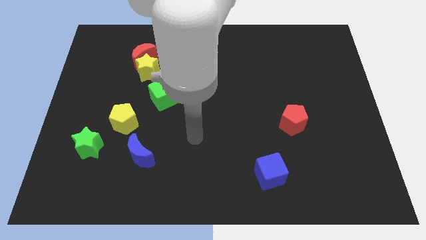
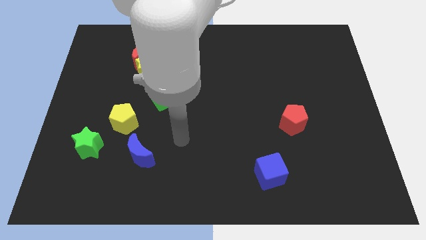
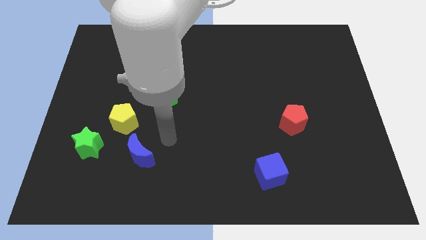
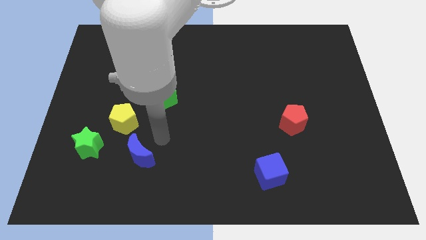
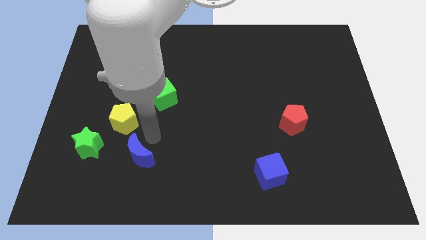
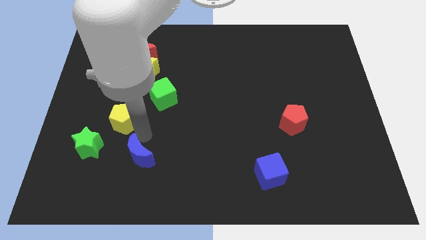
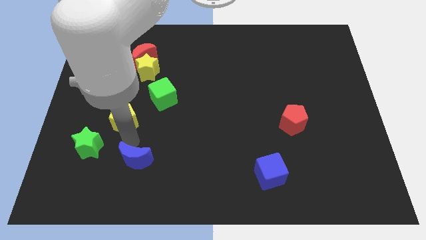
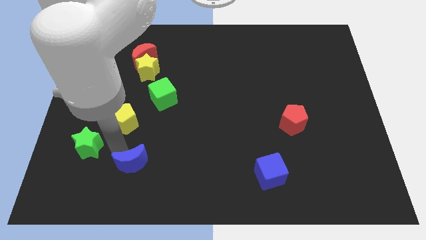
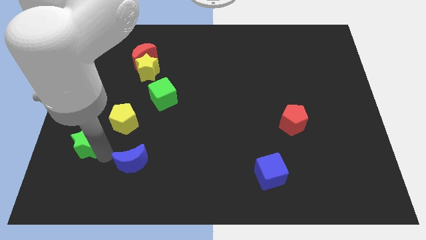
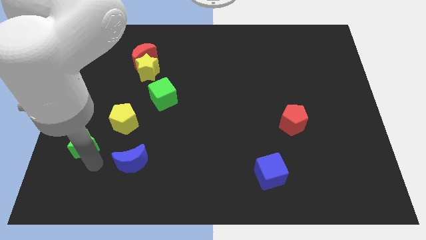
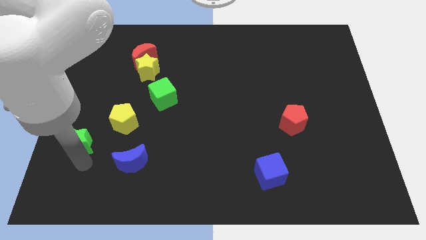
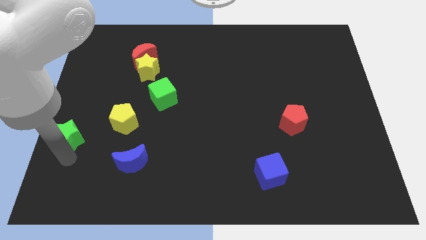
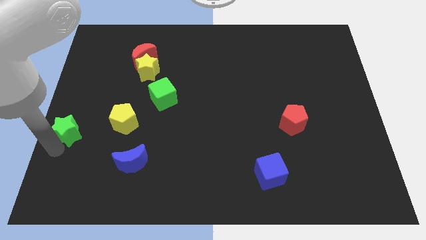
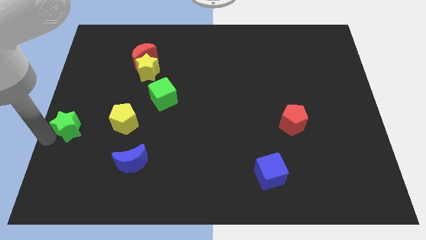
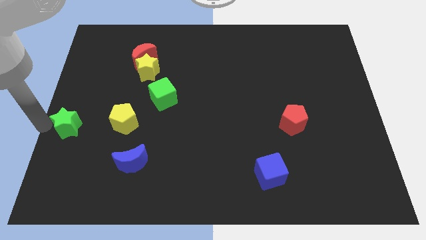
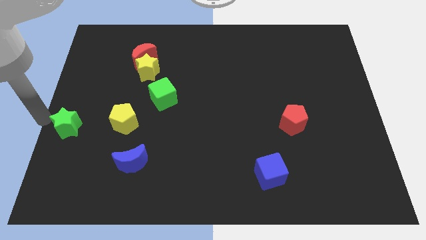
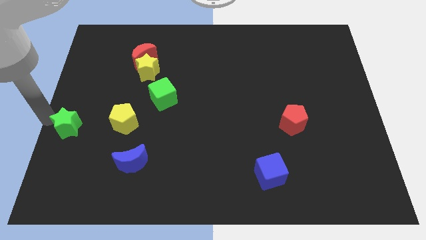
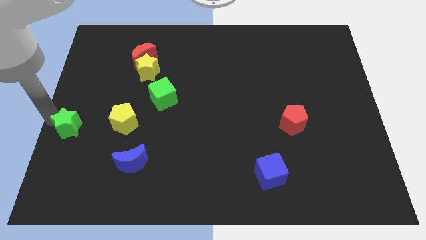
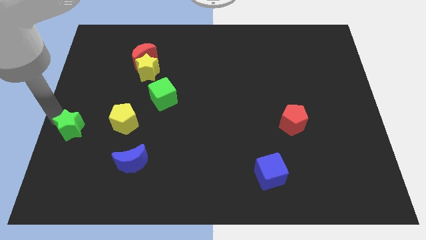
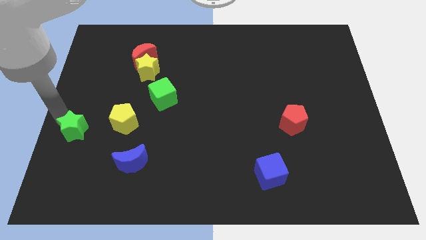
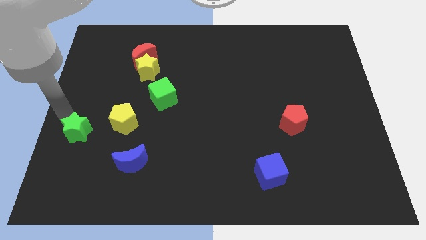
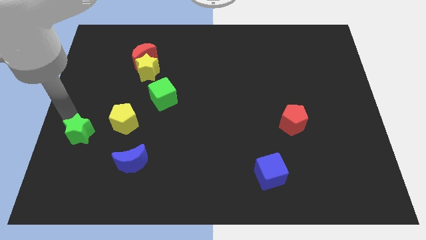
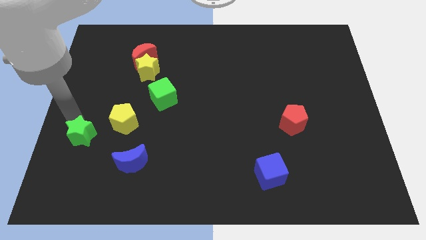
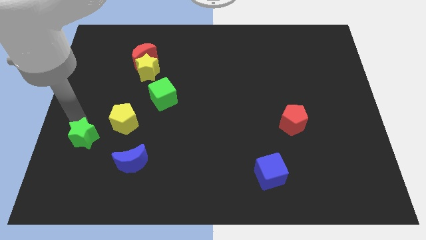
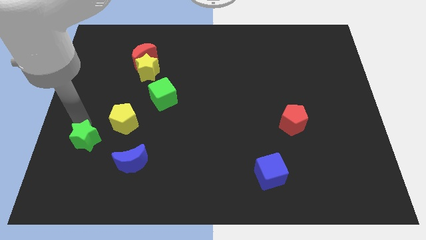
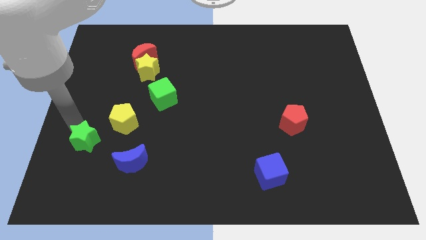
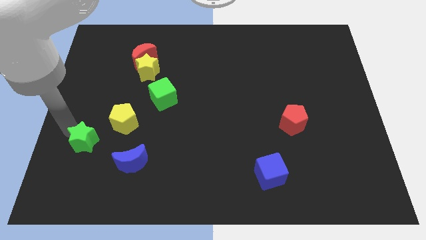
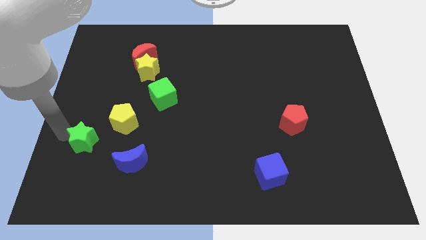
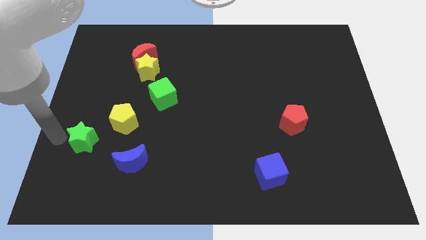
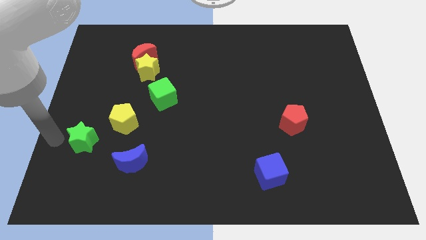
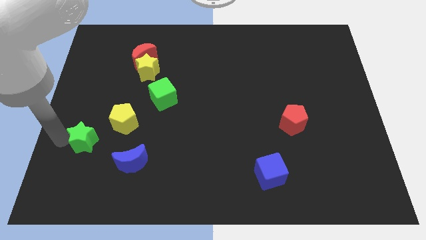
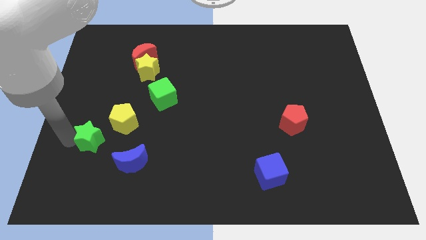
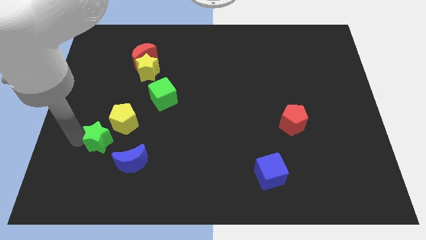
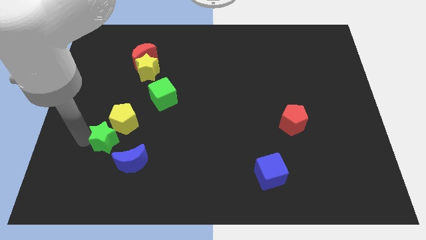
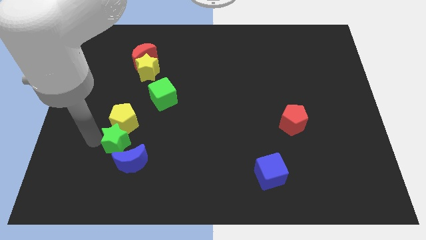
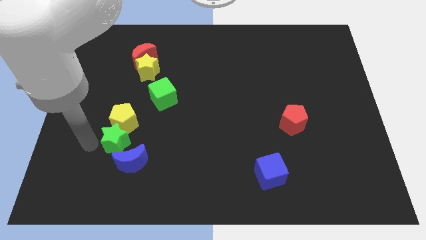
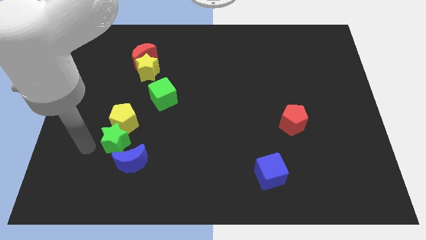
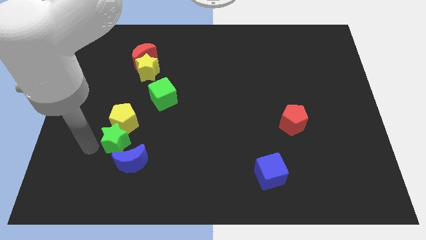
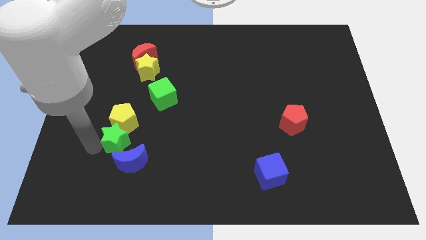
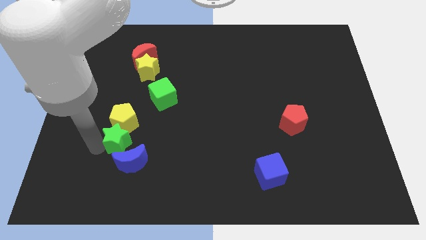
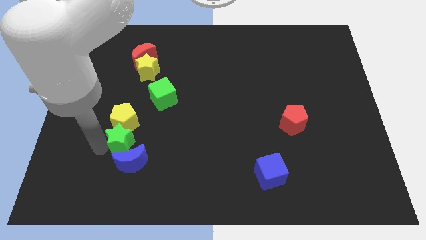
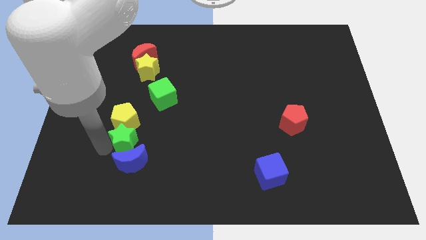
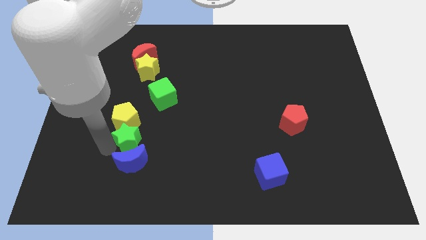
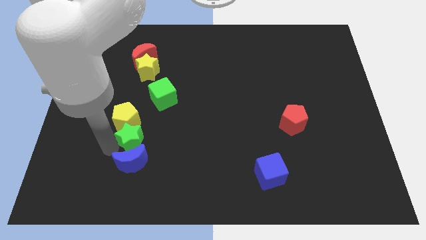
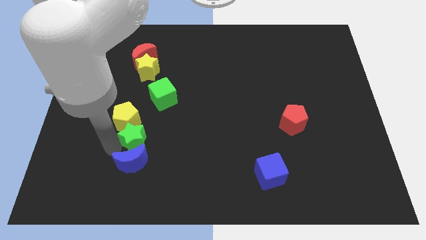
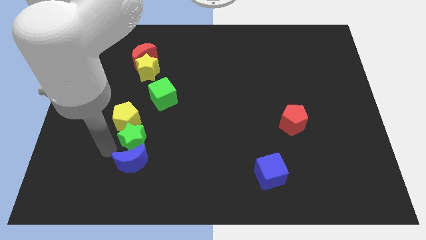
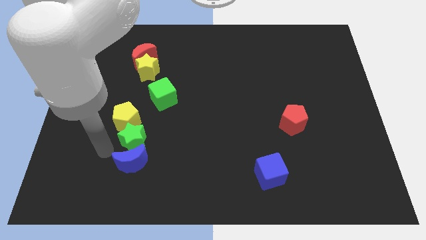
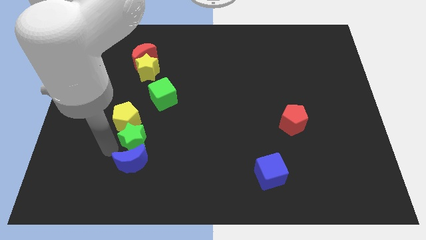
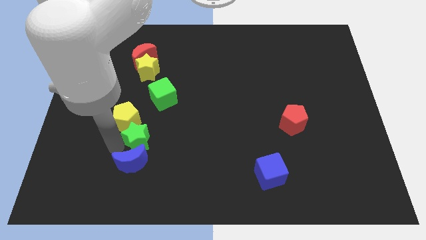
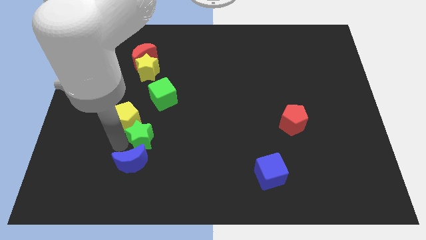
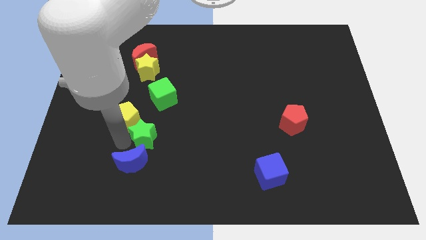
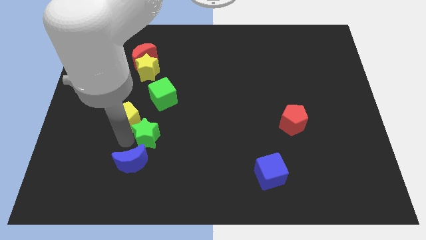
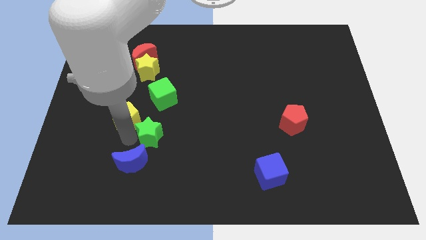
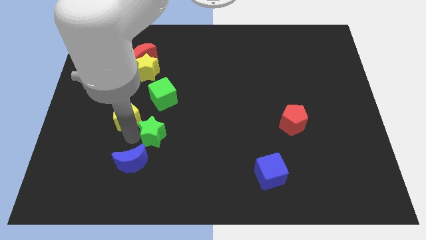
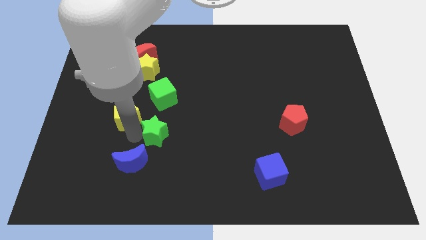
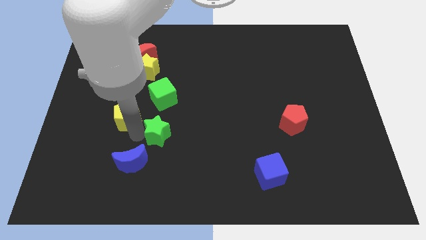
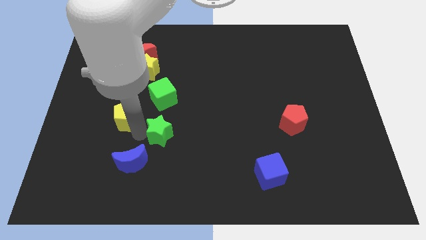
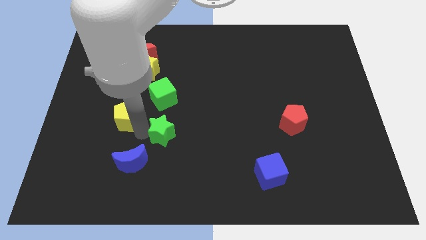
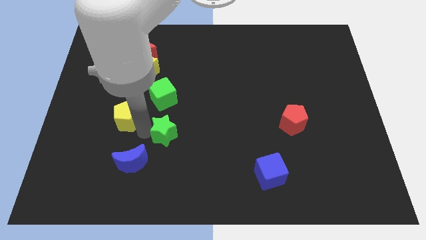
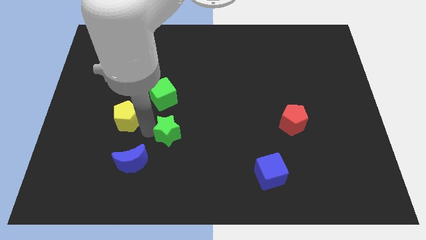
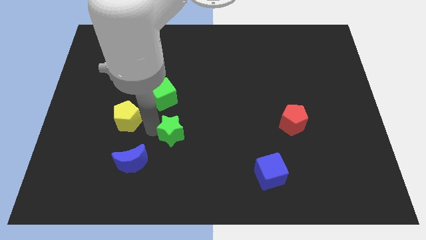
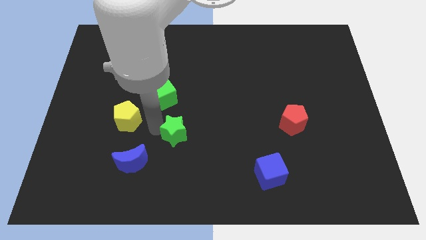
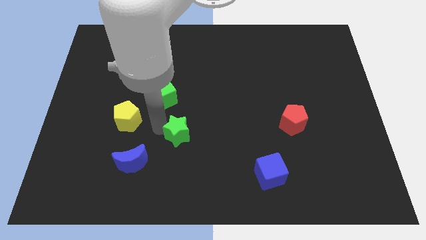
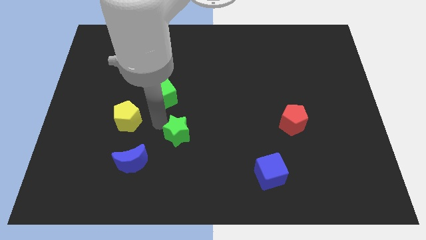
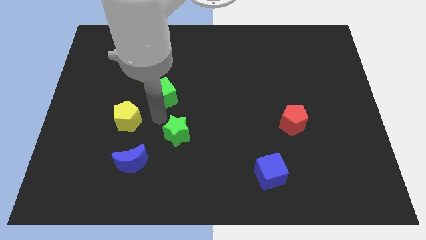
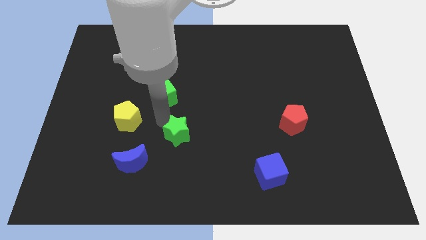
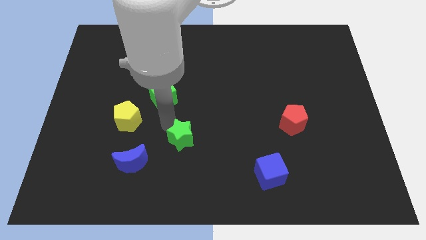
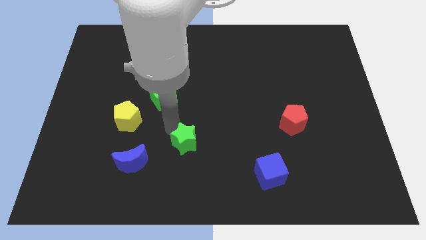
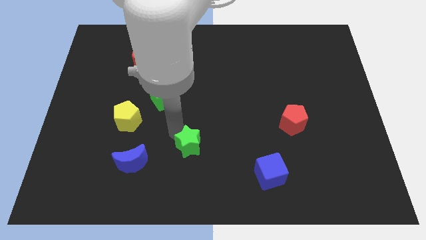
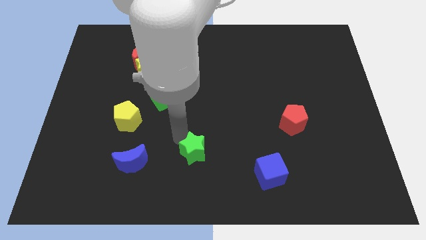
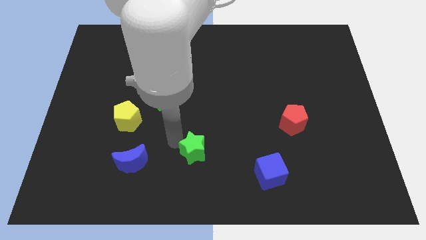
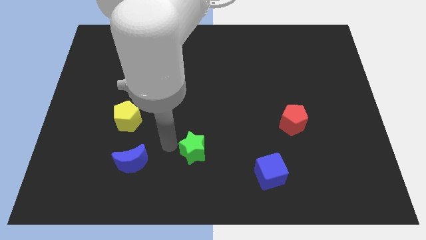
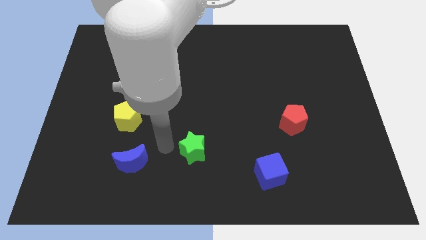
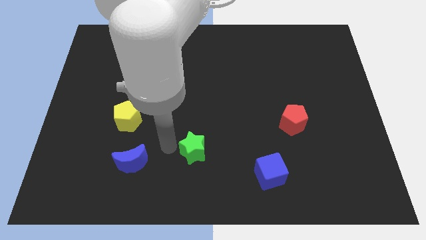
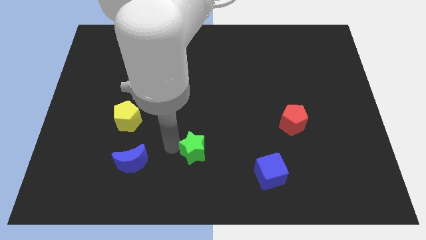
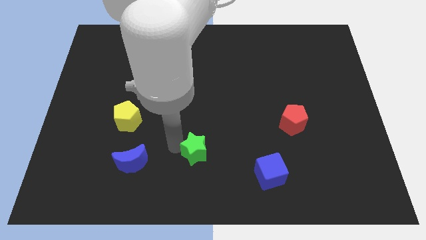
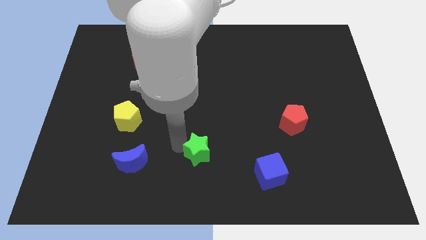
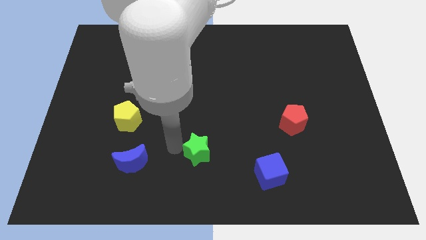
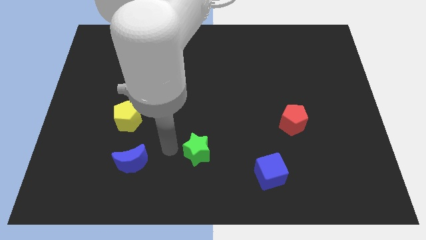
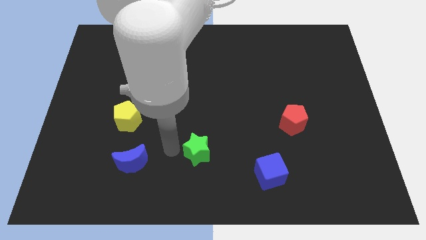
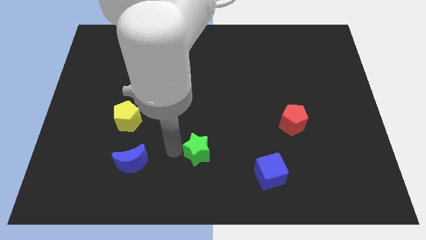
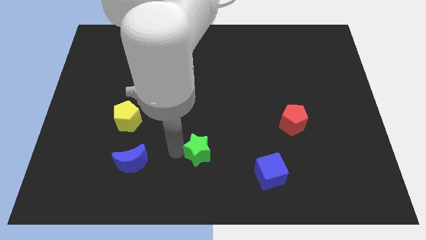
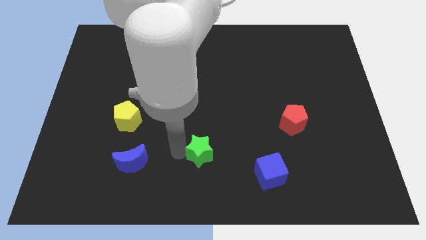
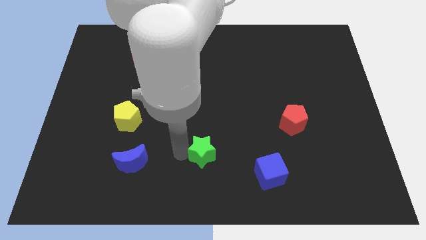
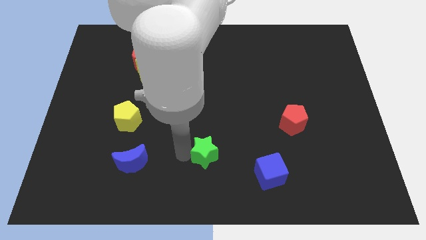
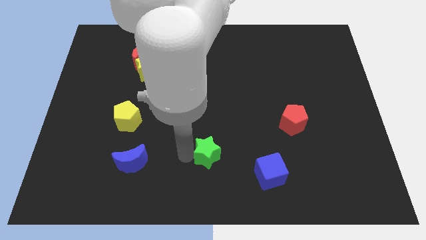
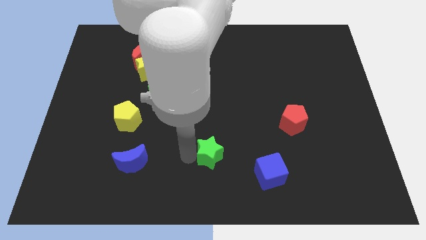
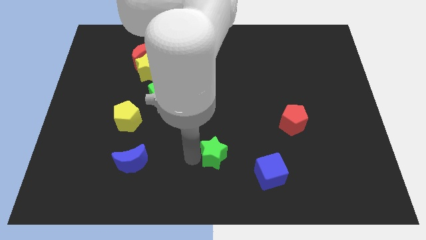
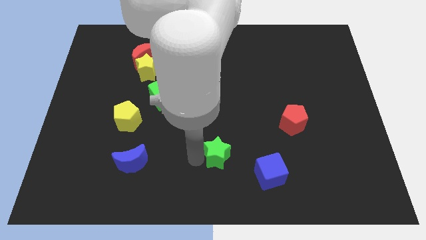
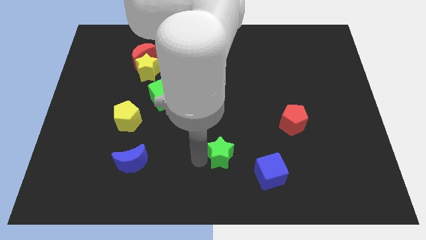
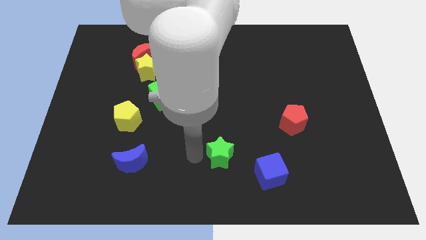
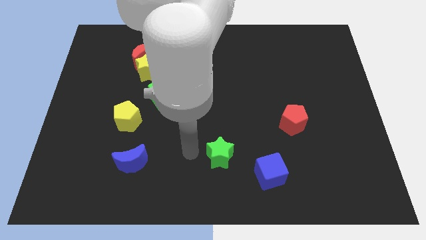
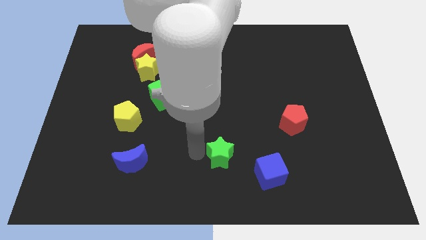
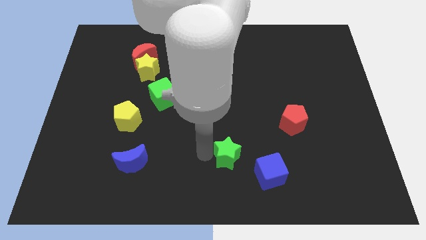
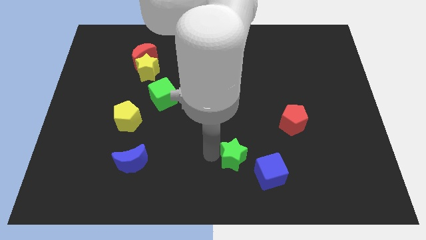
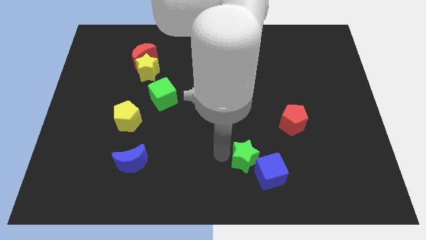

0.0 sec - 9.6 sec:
put the green star towards the blue cube
